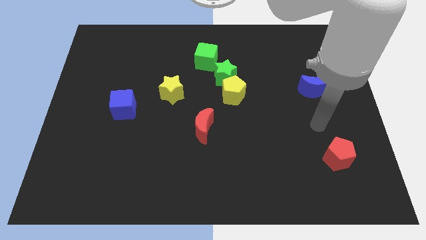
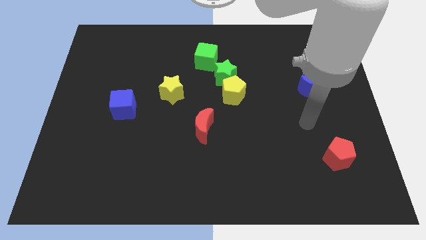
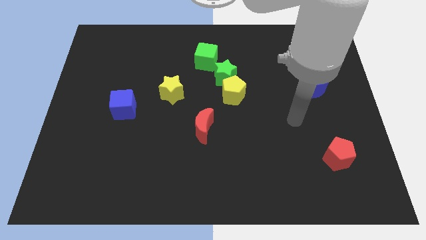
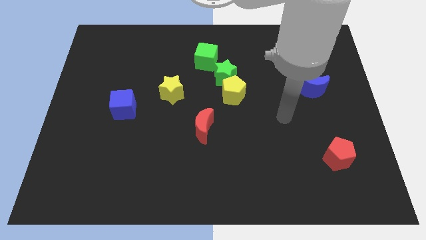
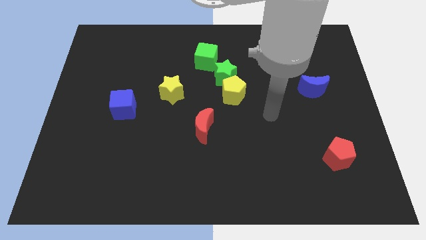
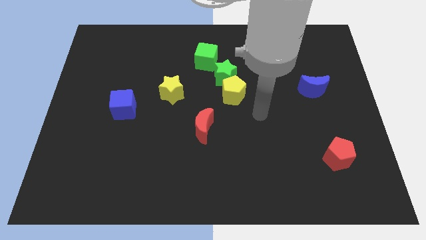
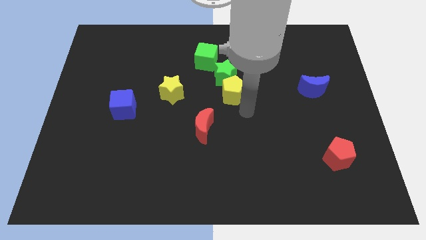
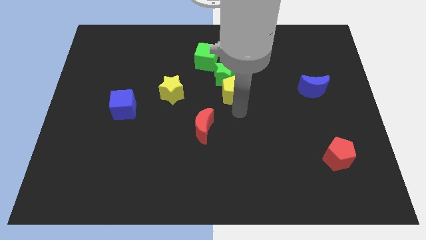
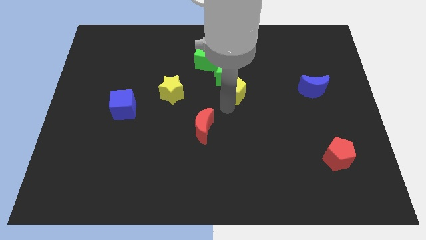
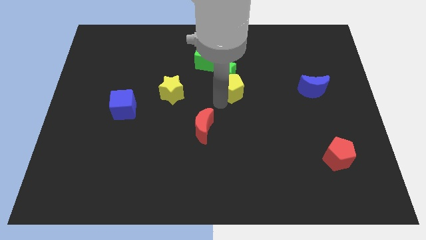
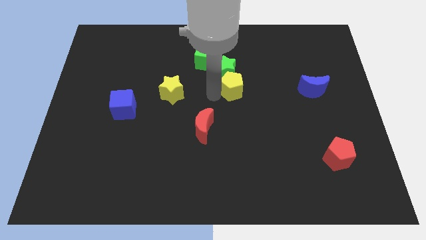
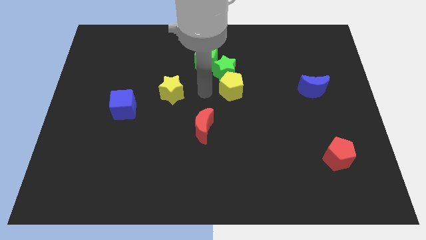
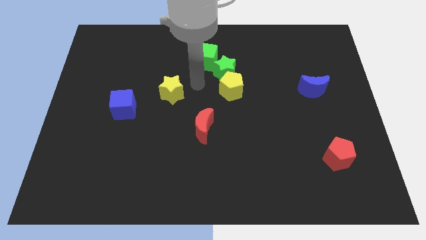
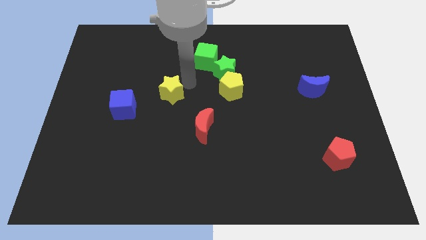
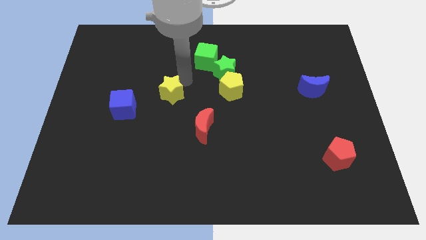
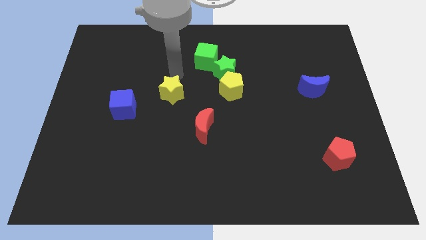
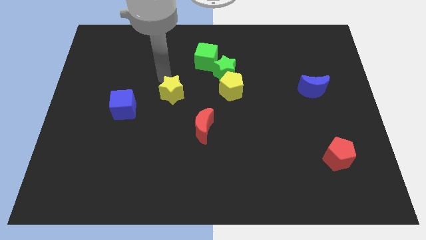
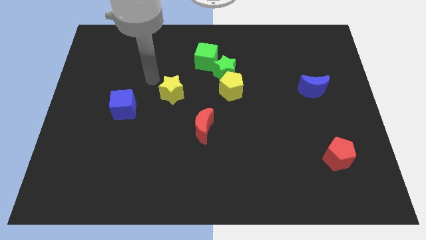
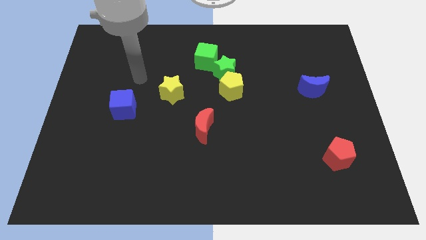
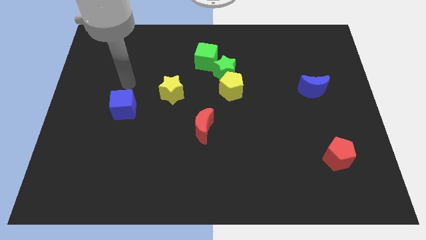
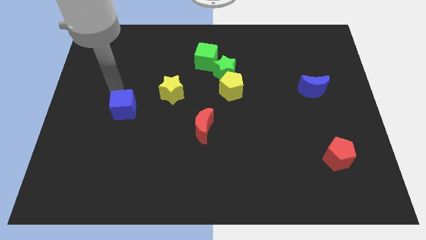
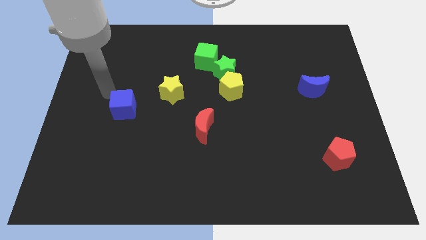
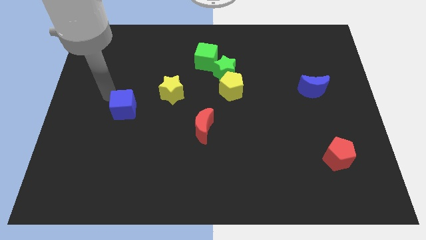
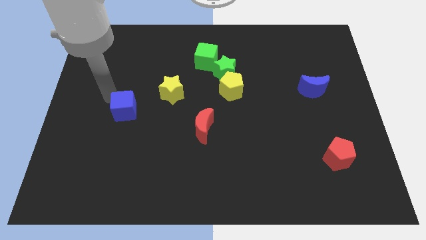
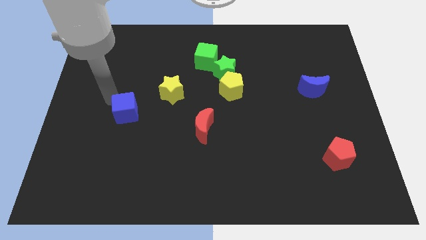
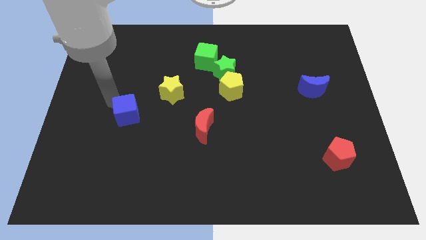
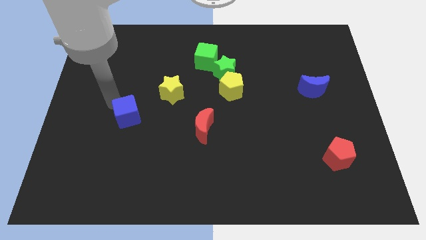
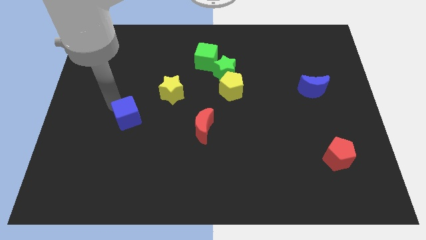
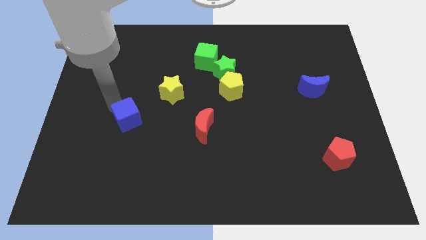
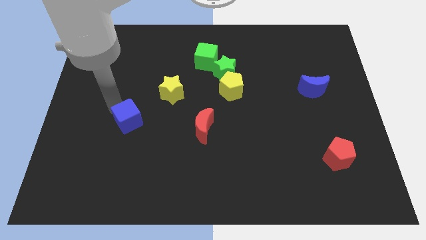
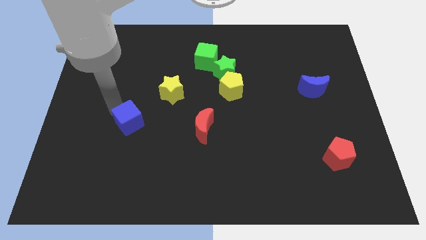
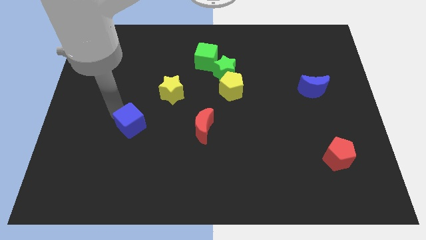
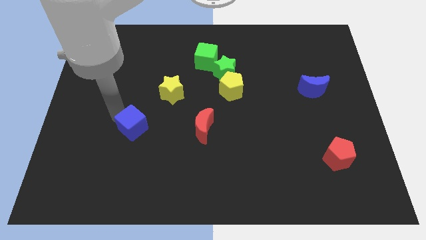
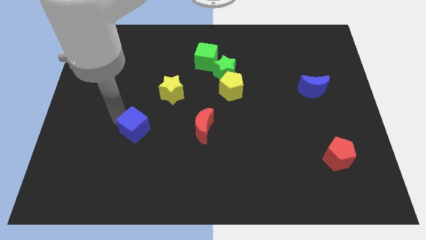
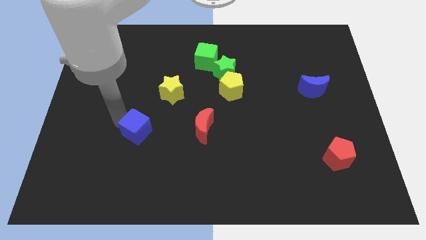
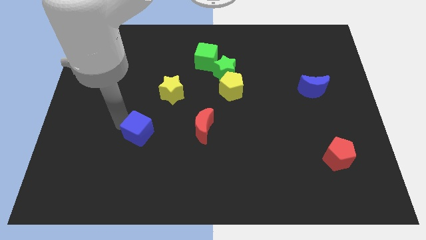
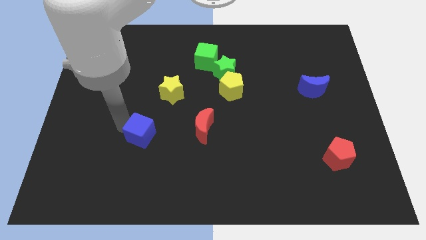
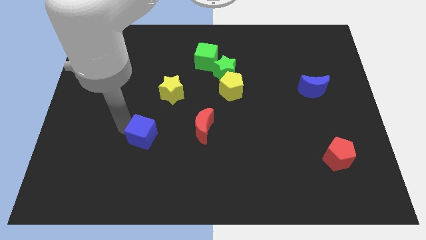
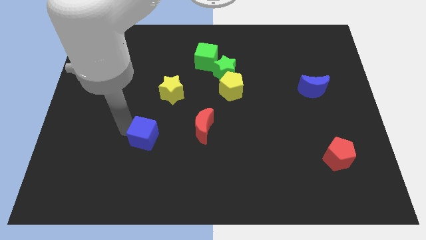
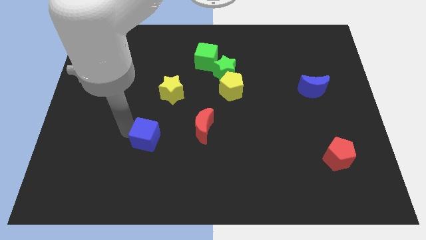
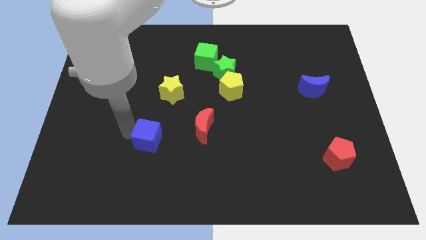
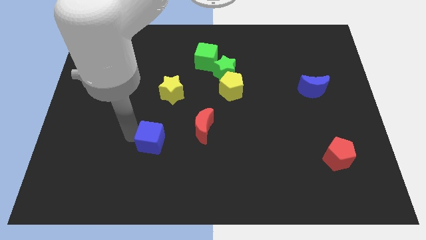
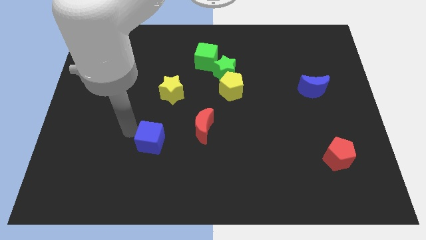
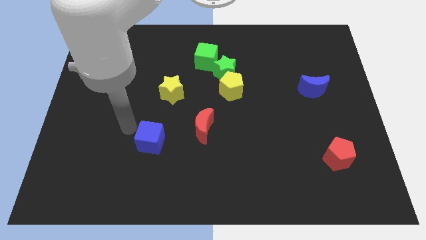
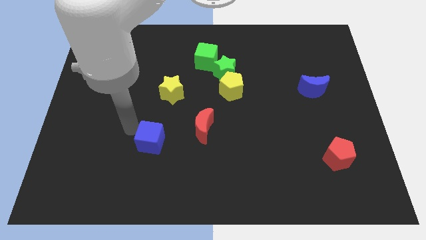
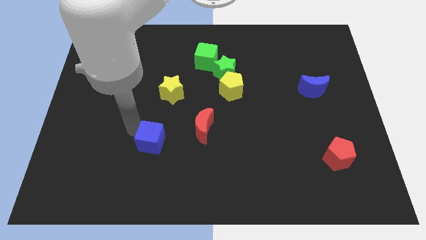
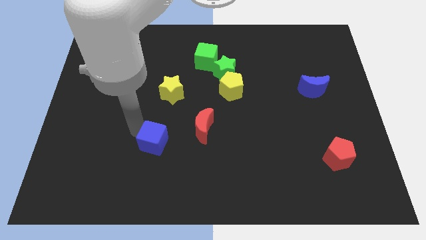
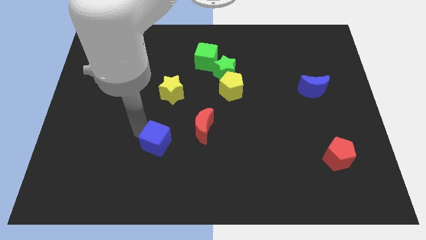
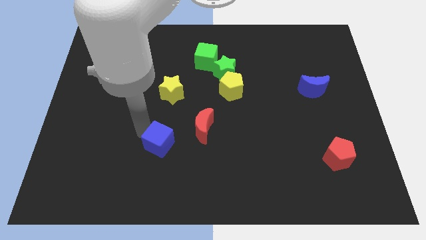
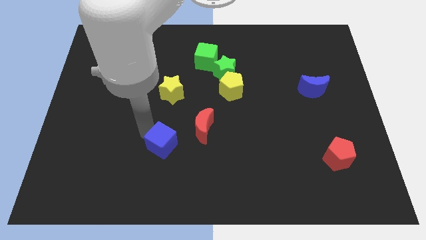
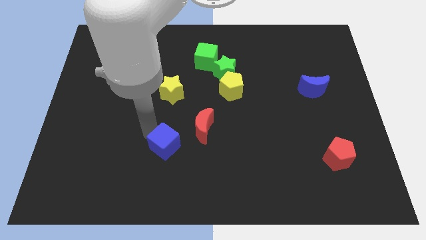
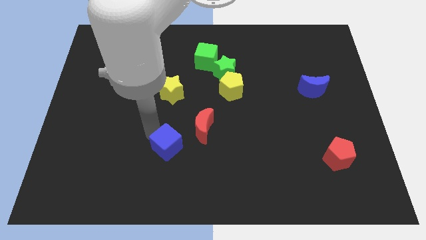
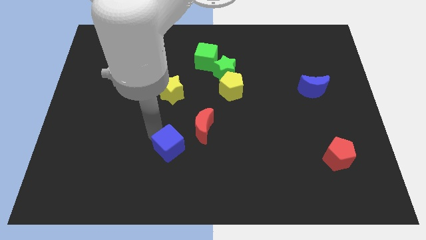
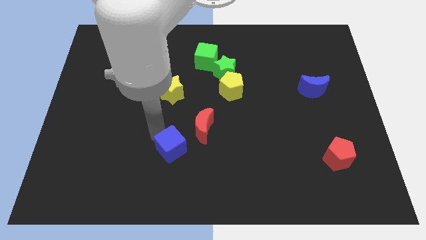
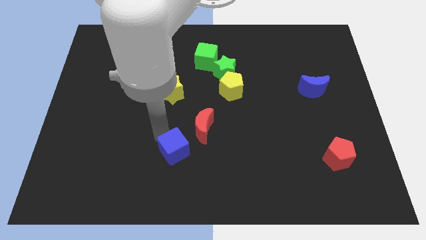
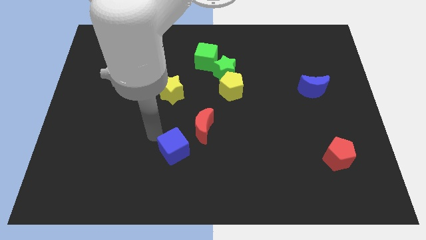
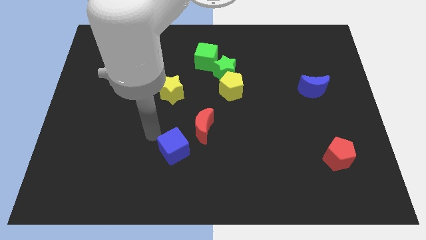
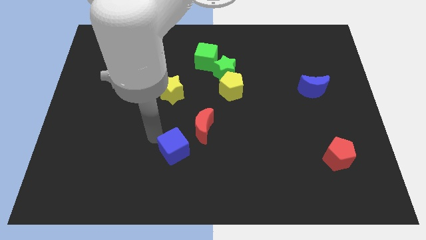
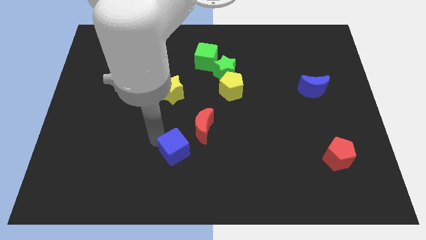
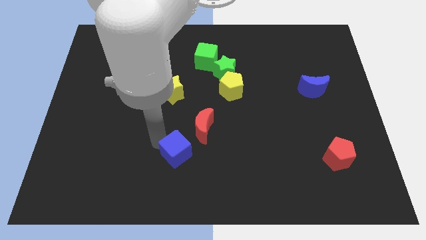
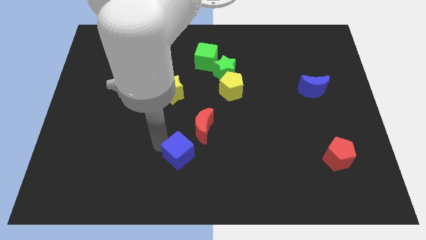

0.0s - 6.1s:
push the blue cube below the red moon

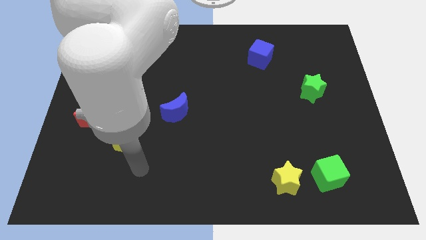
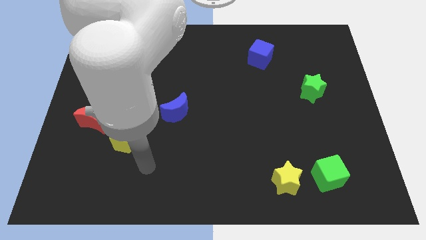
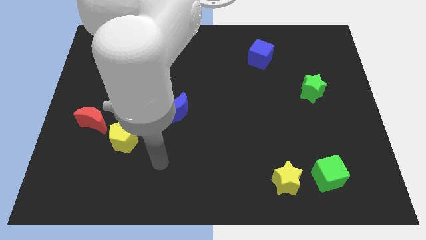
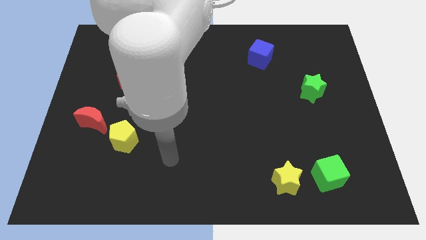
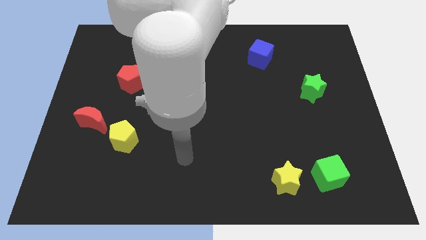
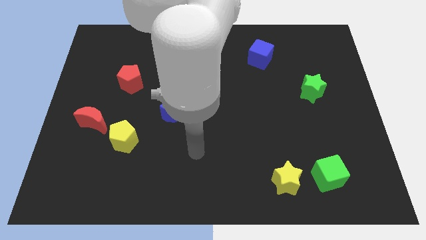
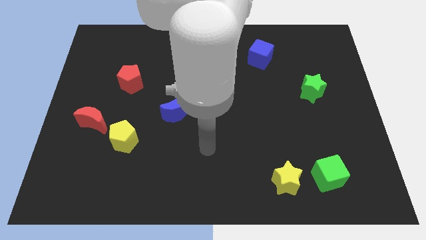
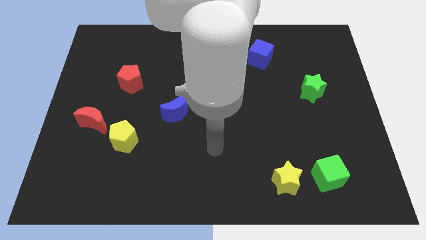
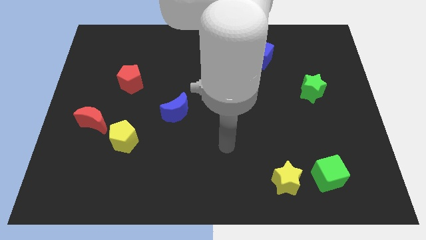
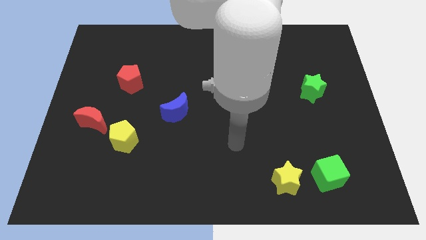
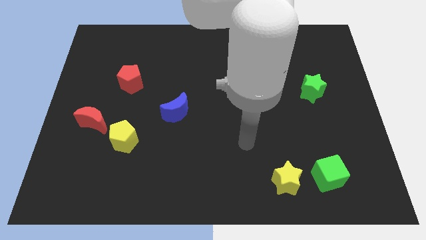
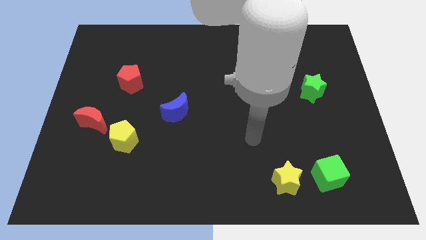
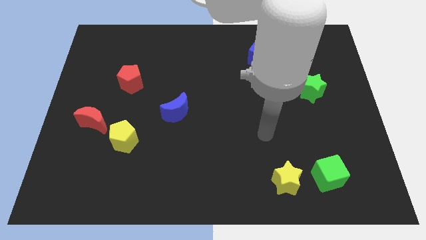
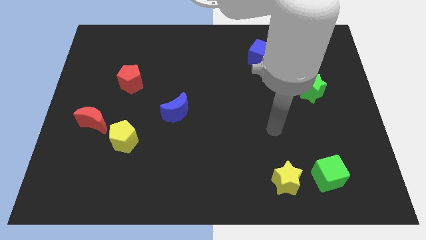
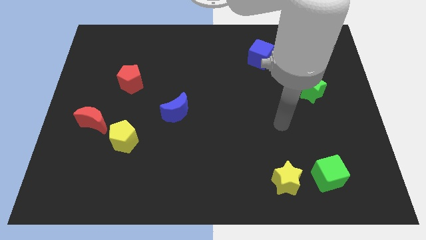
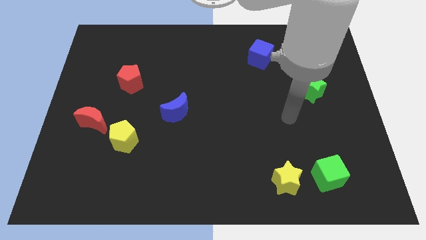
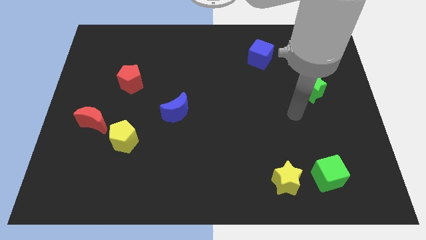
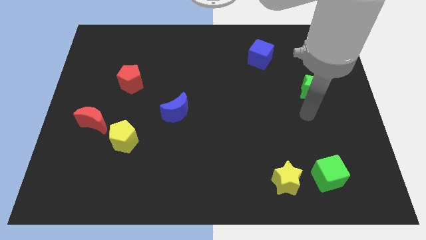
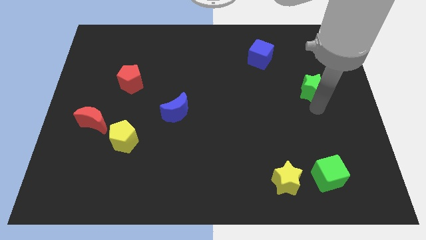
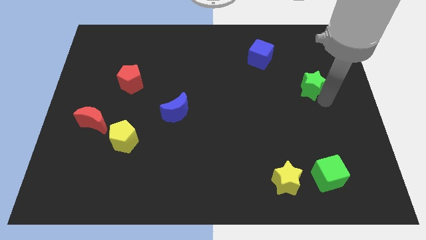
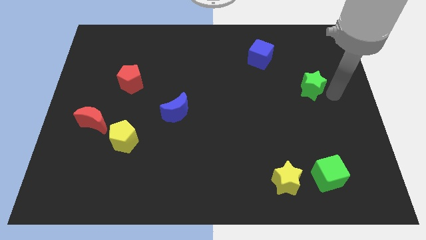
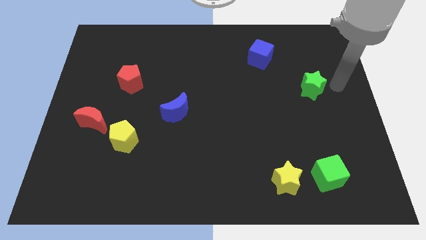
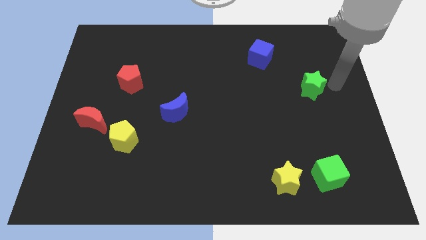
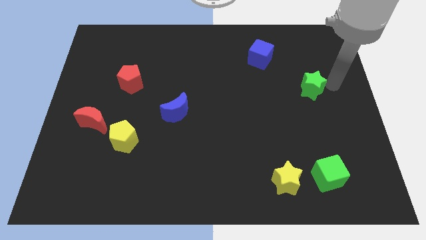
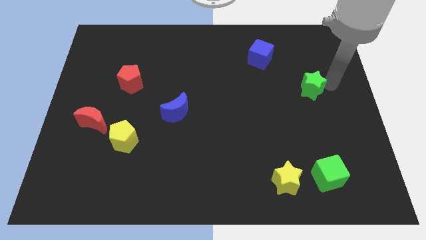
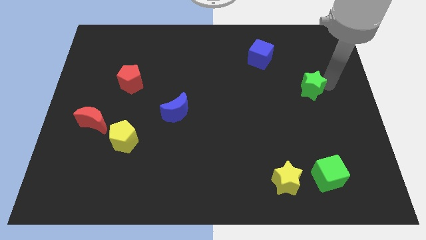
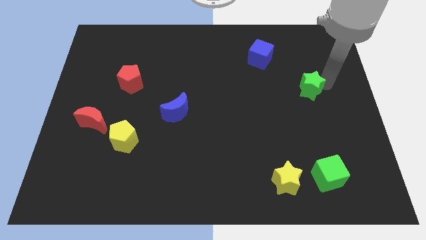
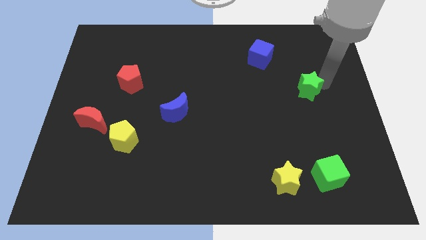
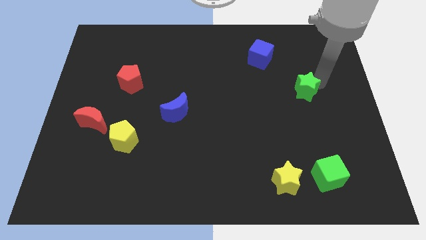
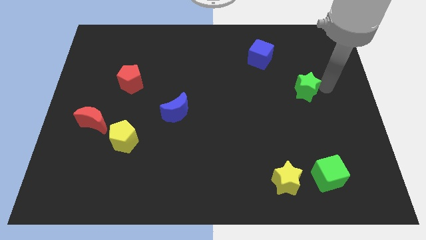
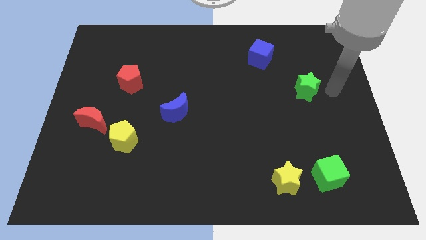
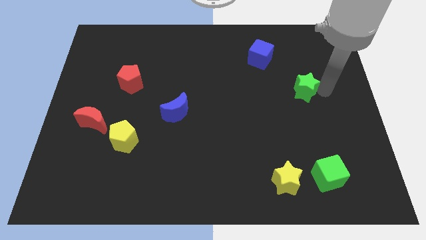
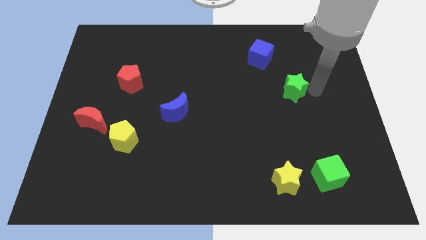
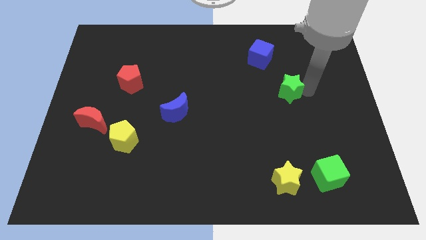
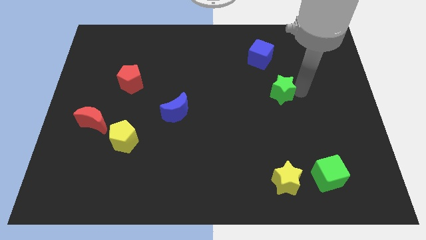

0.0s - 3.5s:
put the green star to the bottom of the blue cube
